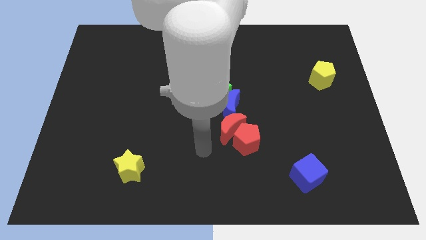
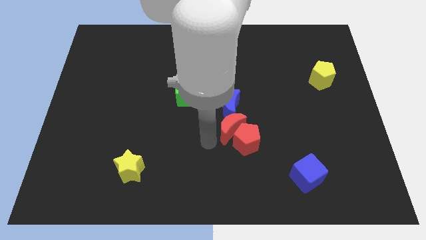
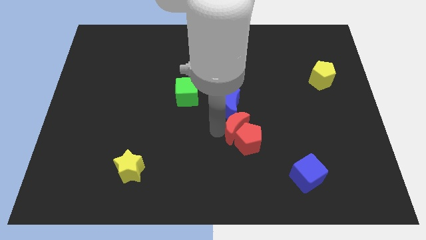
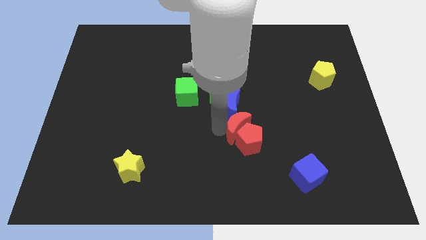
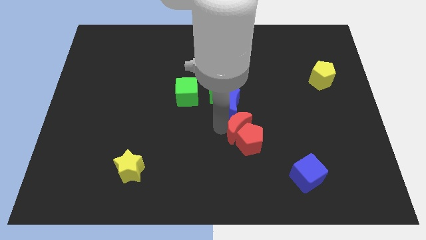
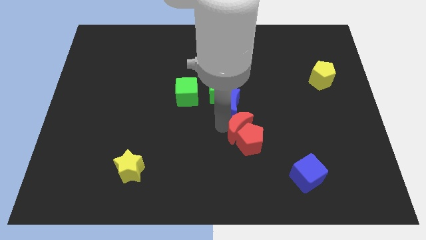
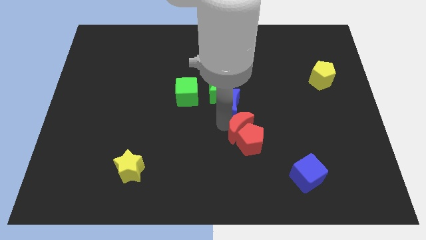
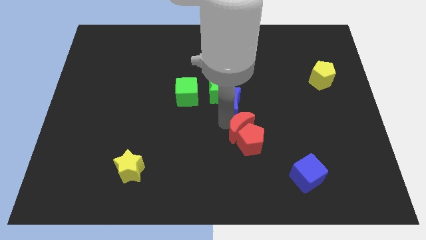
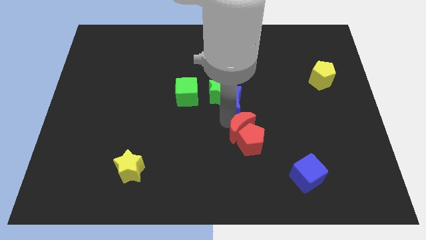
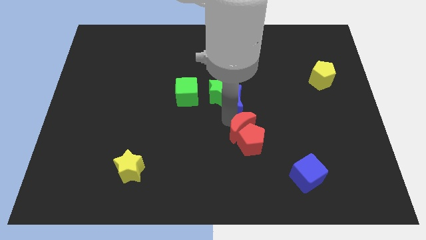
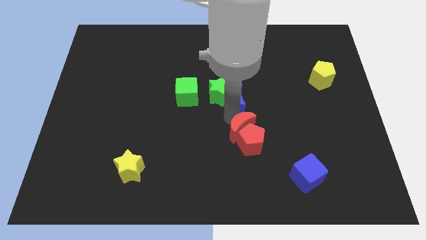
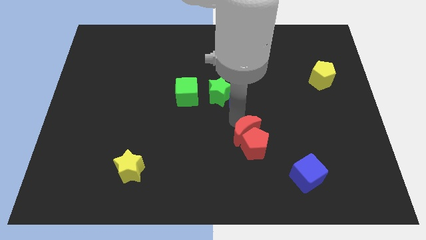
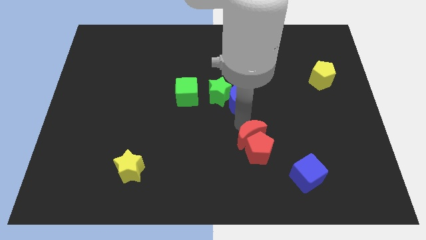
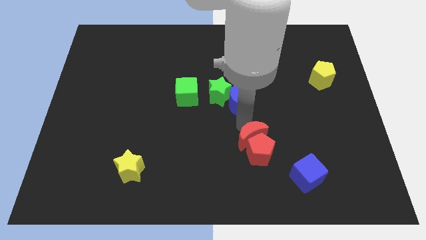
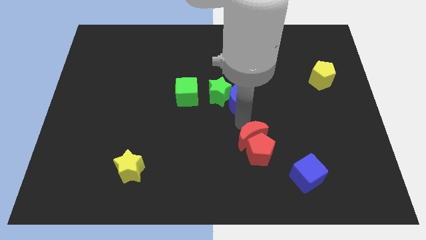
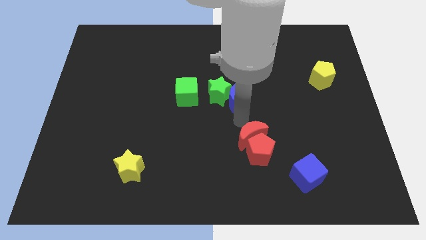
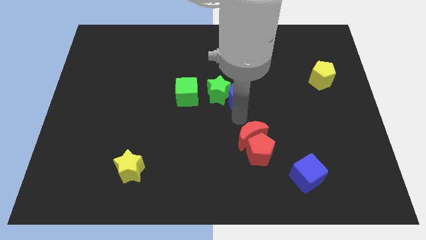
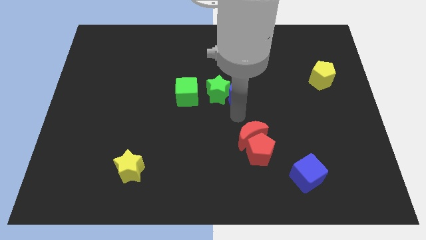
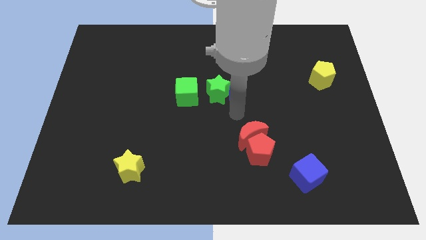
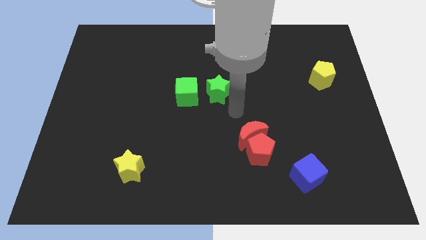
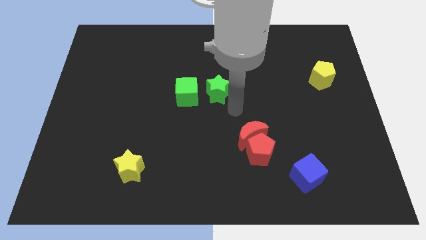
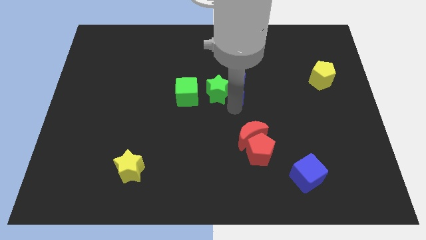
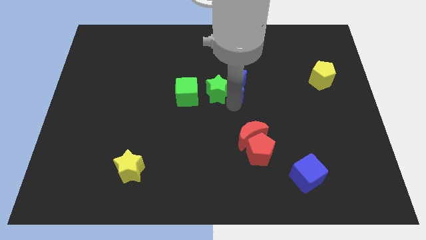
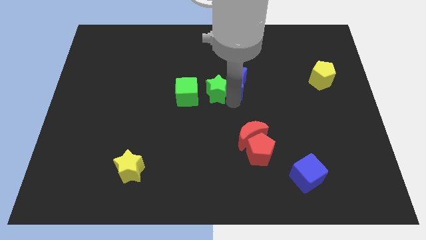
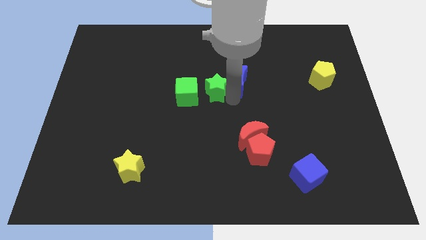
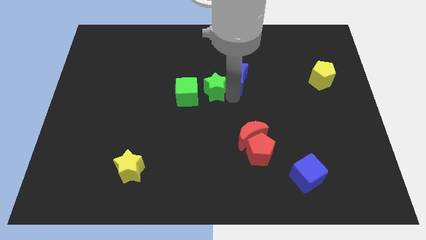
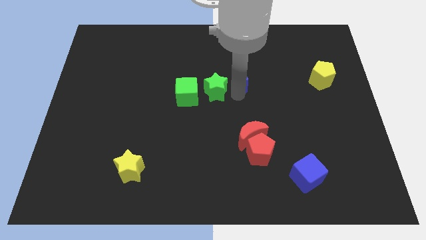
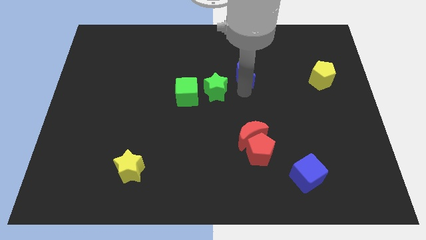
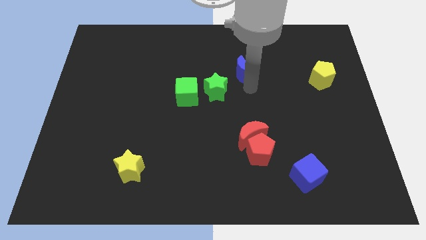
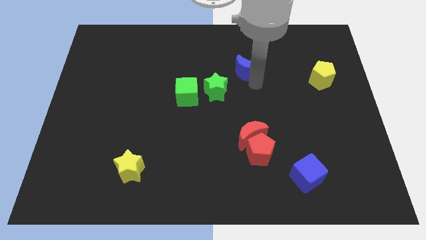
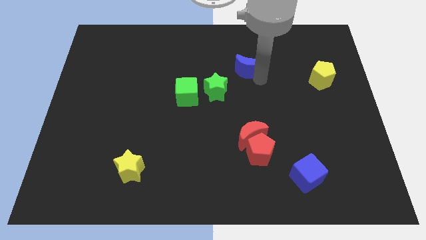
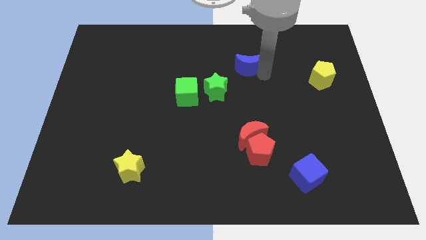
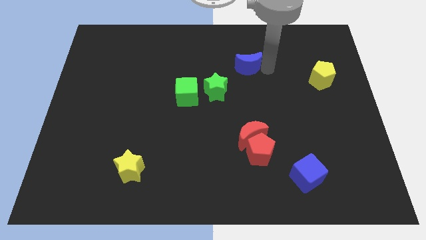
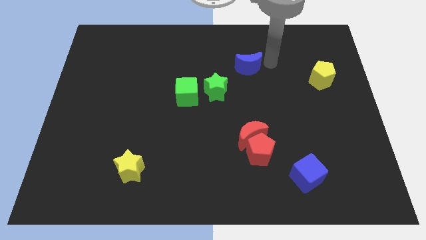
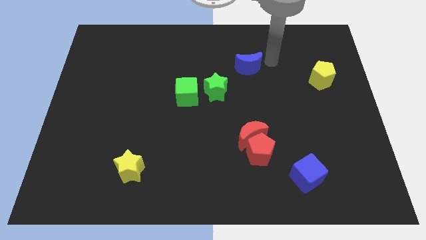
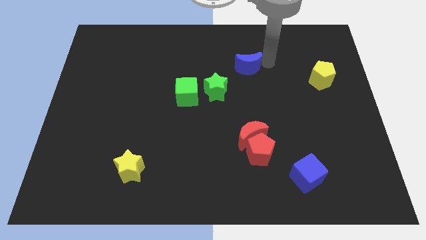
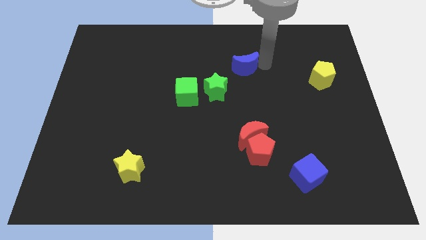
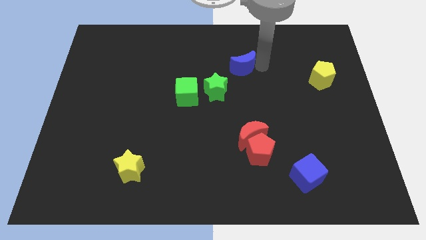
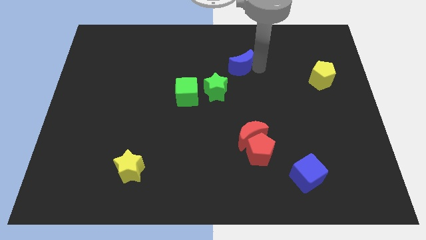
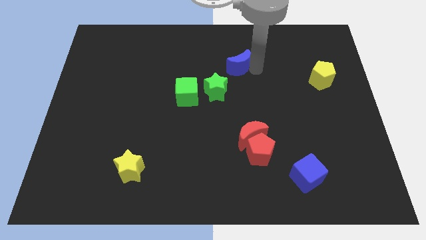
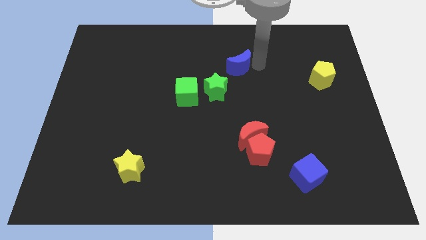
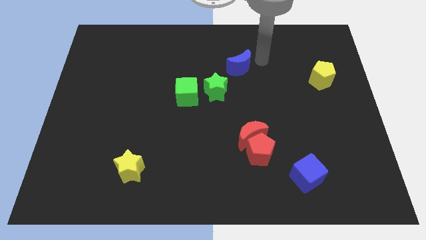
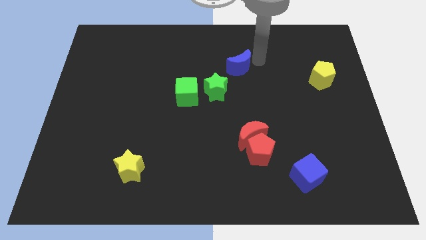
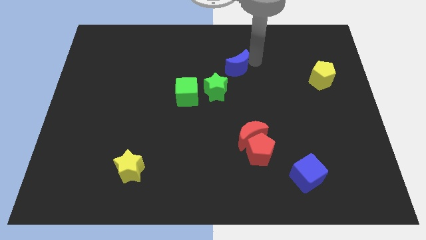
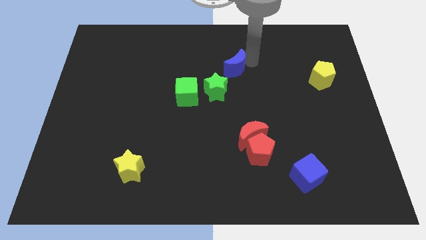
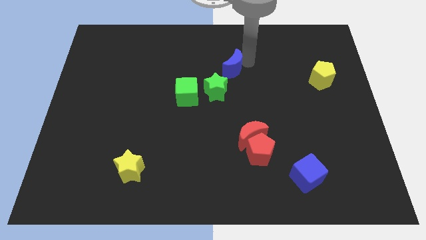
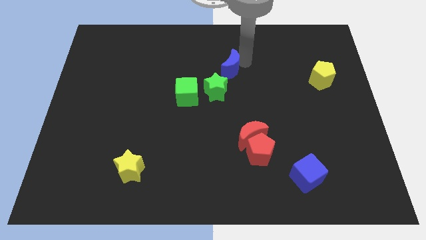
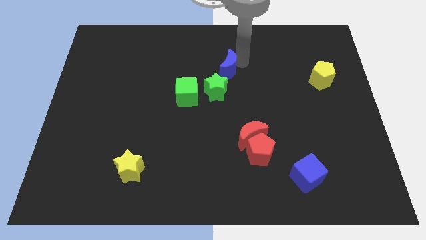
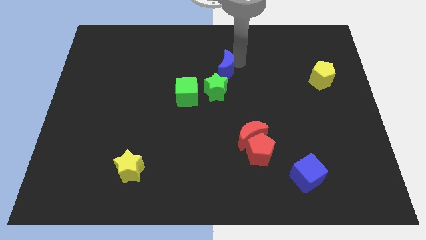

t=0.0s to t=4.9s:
push the blue moon to the top right of the green cube

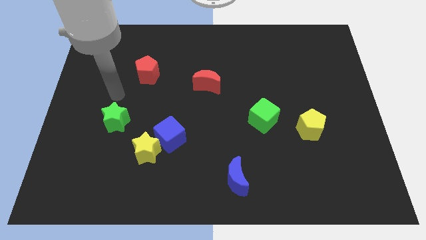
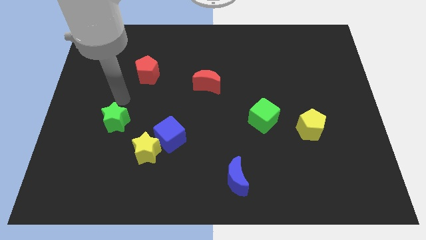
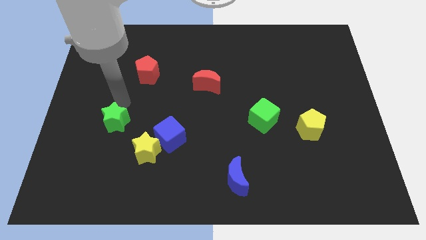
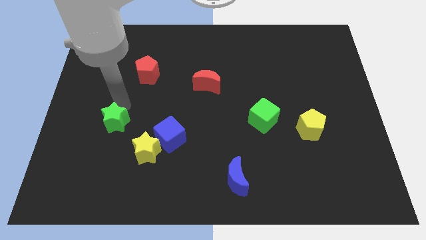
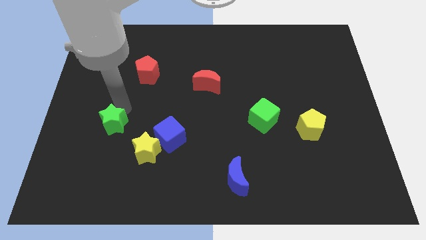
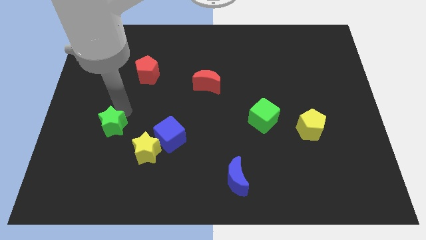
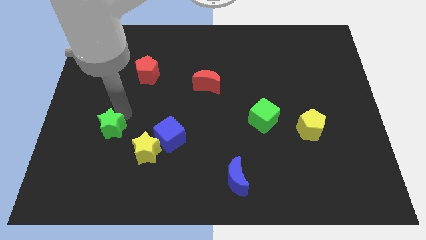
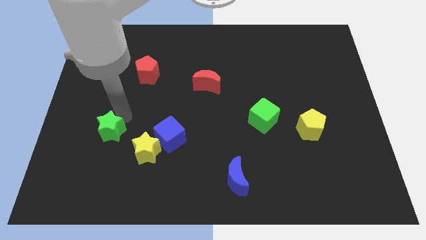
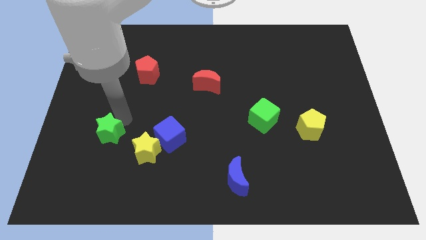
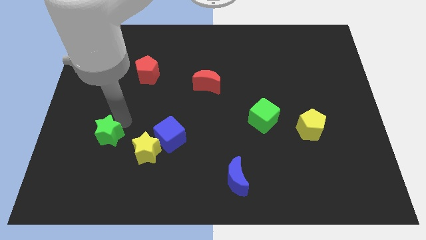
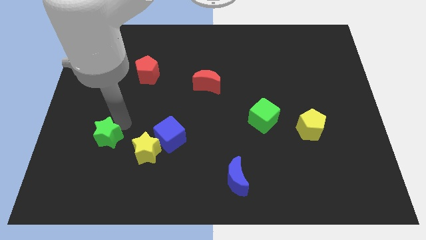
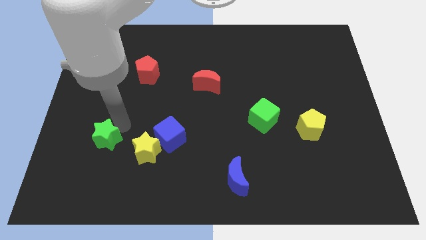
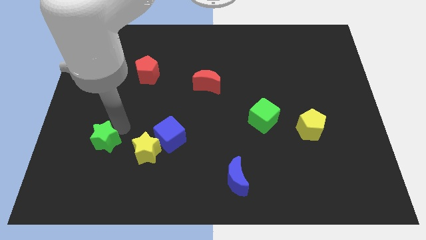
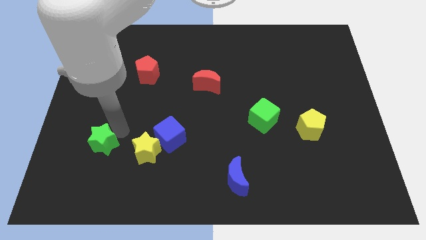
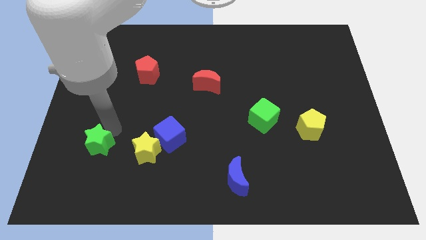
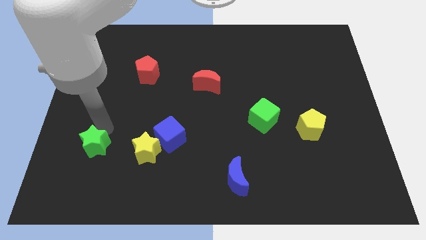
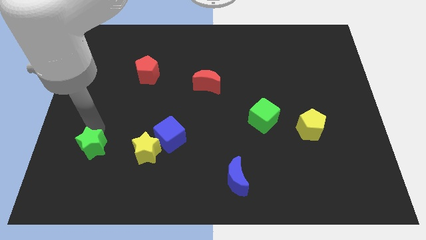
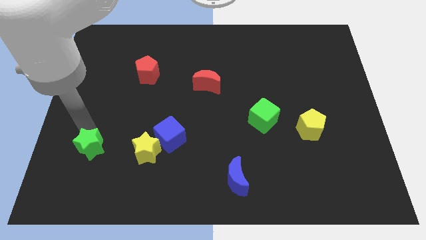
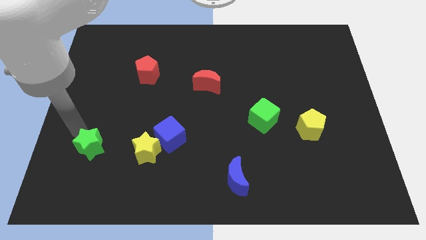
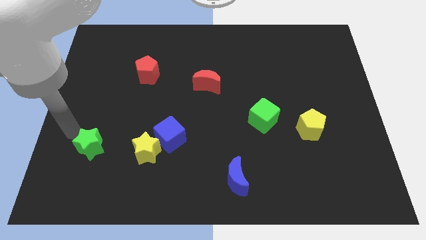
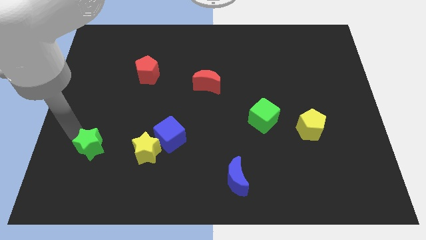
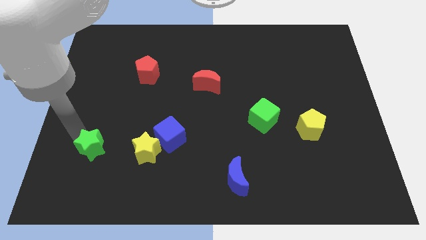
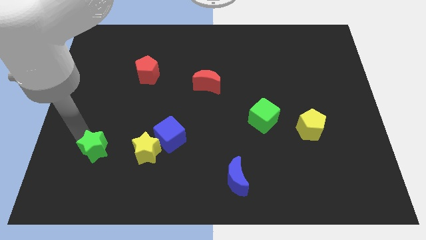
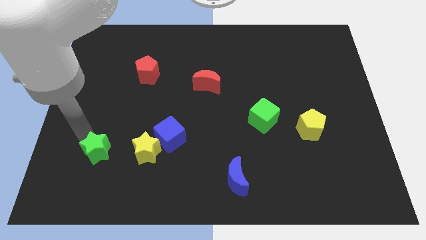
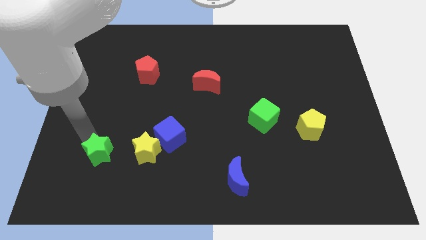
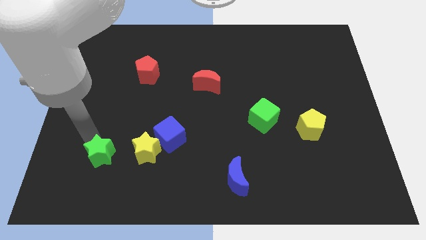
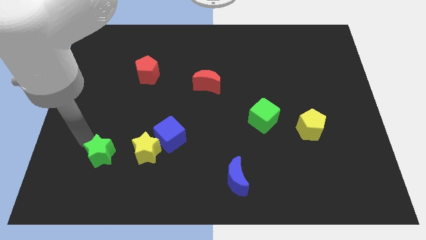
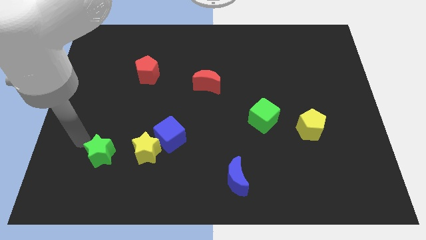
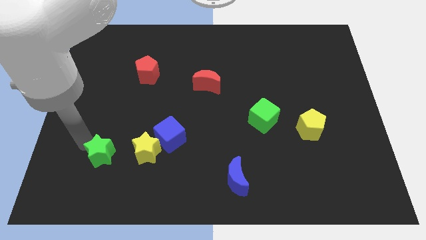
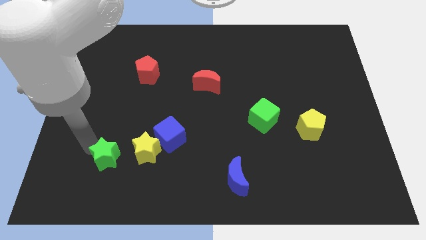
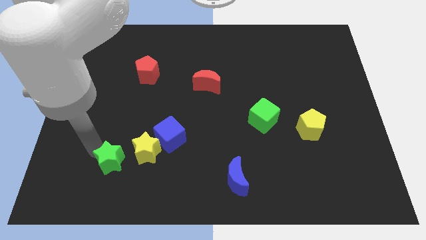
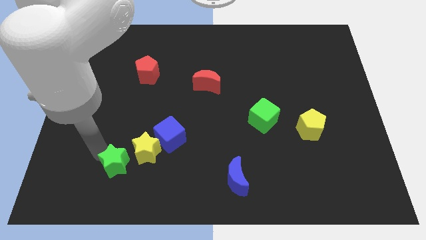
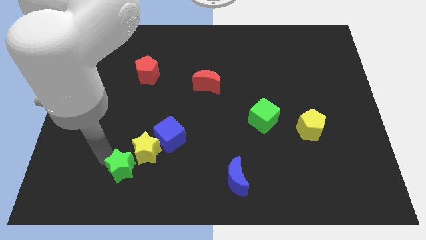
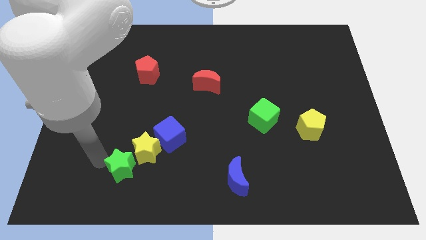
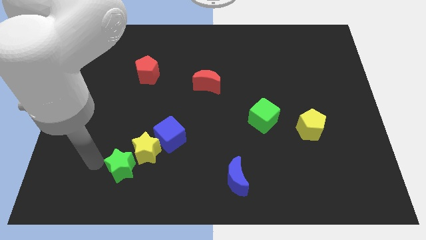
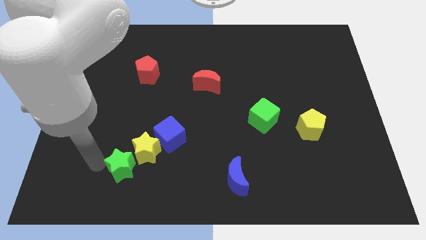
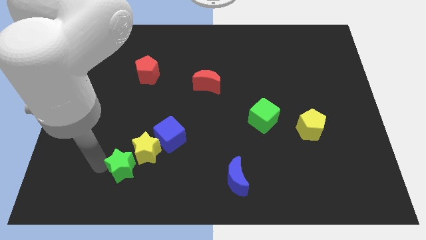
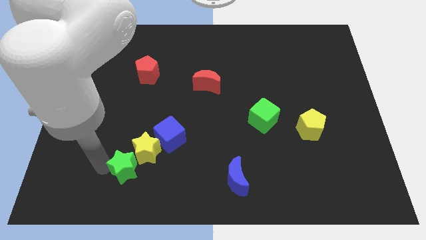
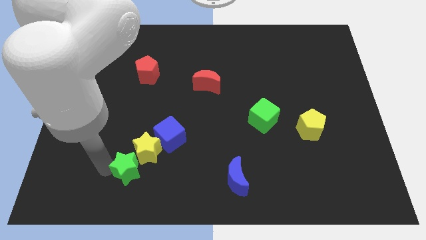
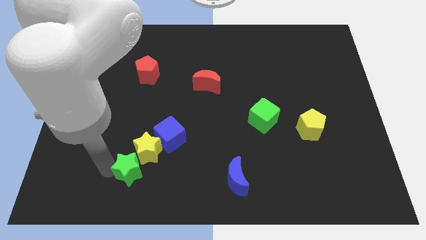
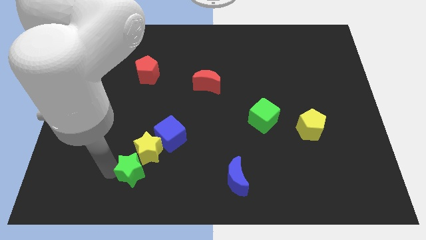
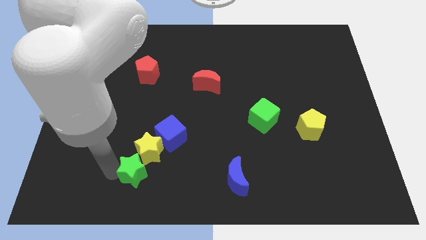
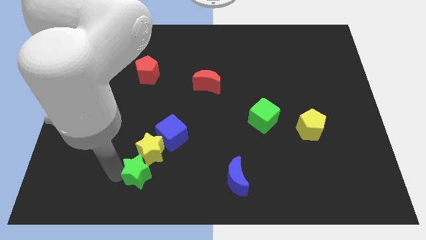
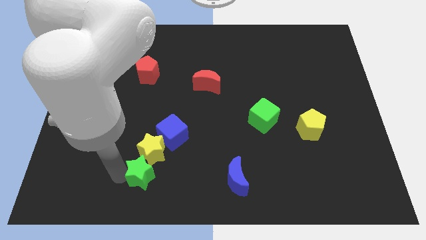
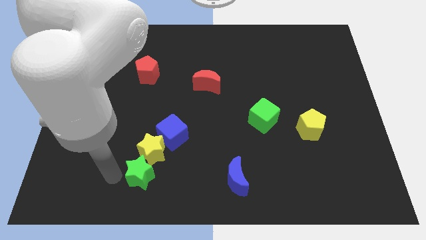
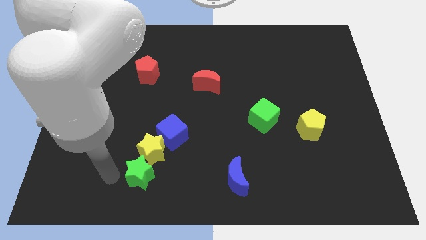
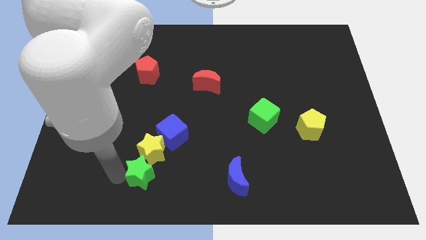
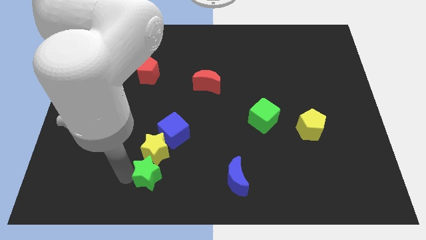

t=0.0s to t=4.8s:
push the green star diagonally down and to the right of the yellow star
